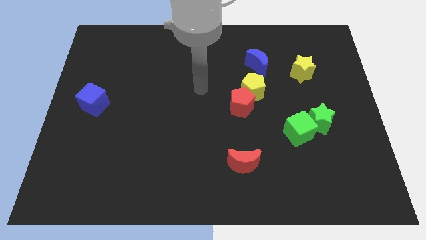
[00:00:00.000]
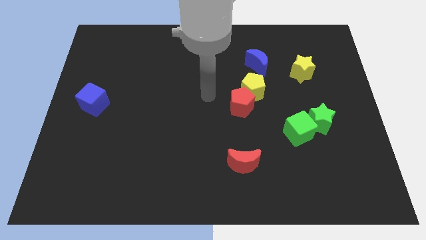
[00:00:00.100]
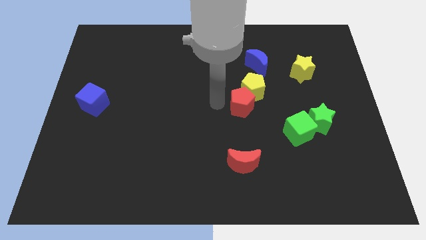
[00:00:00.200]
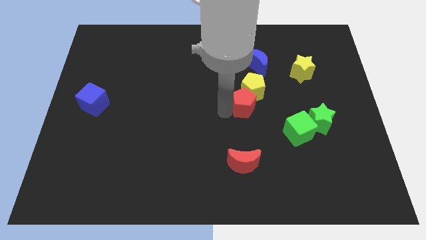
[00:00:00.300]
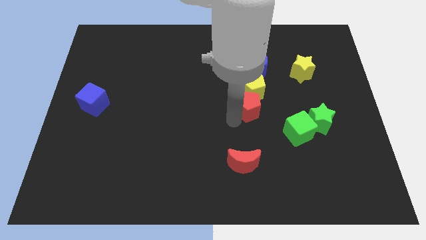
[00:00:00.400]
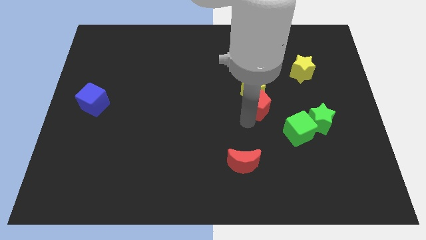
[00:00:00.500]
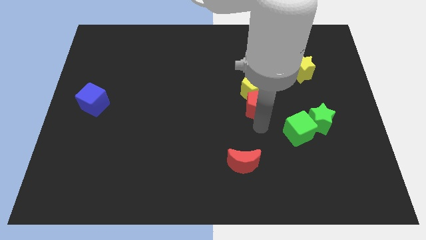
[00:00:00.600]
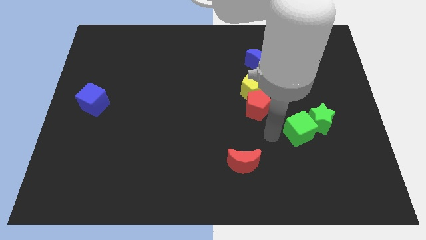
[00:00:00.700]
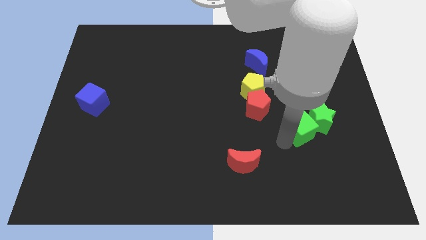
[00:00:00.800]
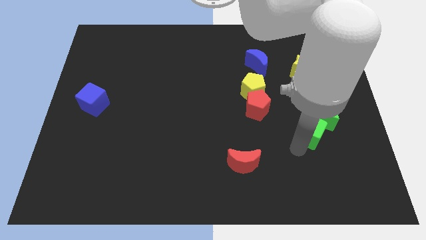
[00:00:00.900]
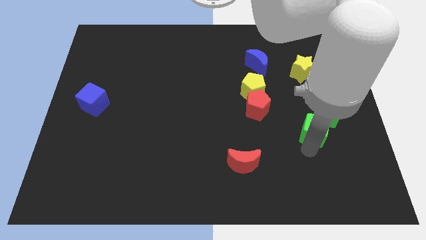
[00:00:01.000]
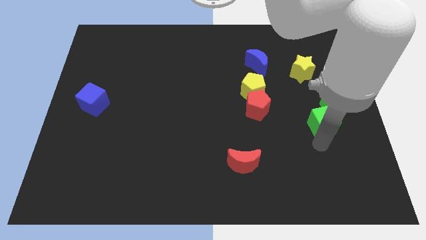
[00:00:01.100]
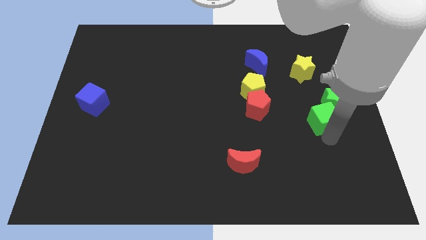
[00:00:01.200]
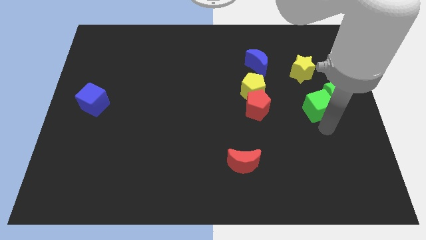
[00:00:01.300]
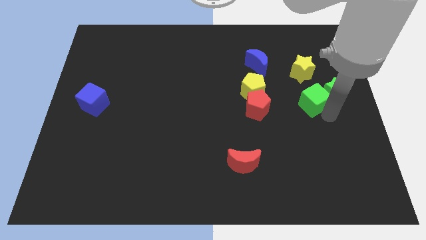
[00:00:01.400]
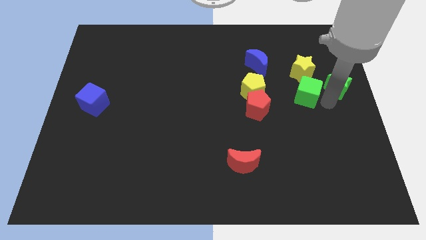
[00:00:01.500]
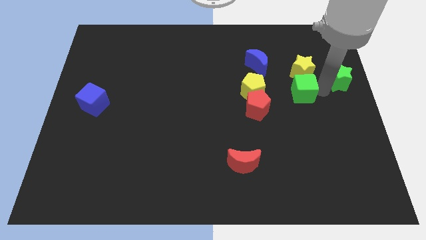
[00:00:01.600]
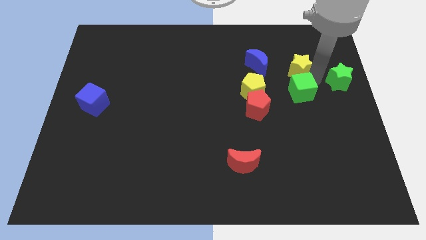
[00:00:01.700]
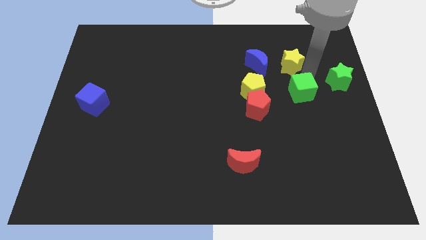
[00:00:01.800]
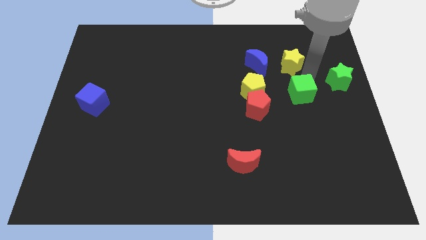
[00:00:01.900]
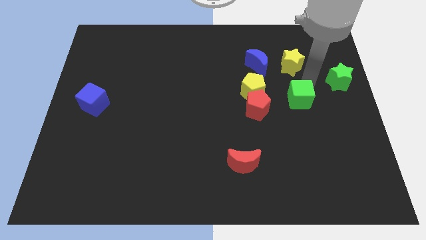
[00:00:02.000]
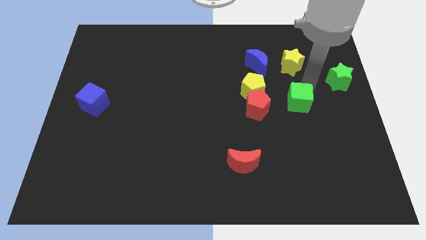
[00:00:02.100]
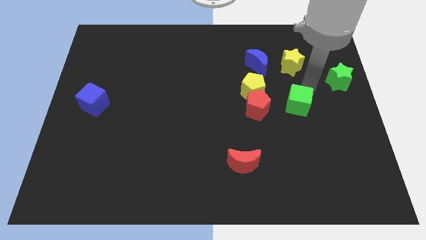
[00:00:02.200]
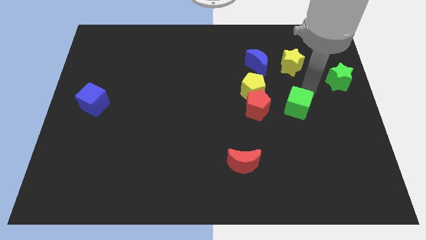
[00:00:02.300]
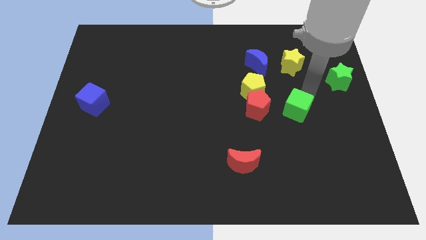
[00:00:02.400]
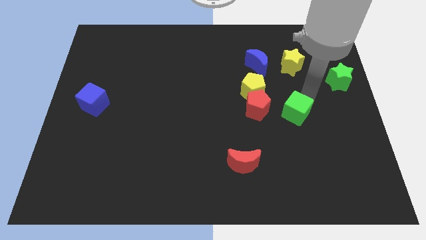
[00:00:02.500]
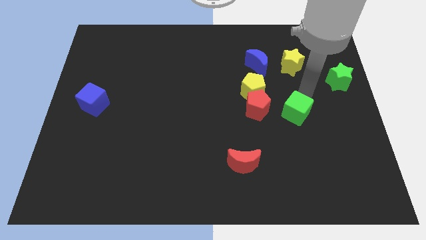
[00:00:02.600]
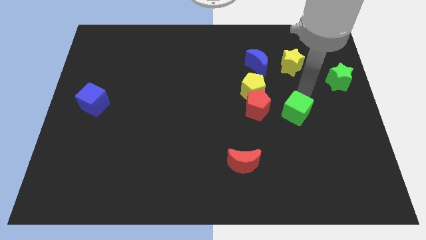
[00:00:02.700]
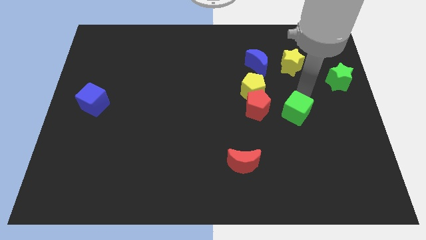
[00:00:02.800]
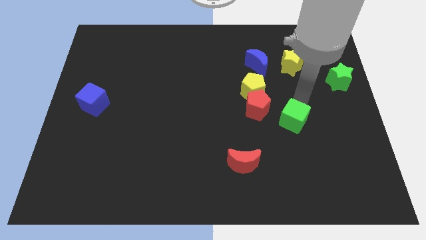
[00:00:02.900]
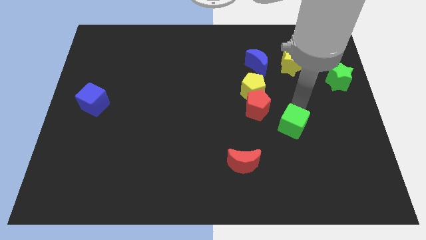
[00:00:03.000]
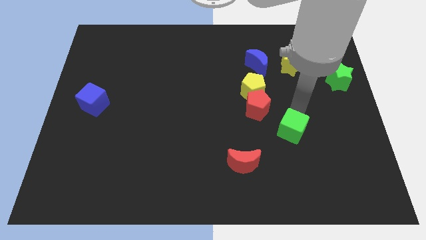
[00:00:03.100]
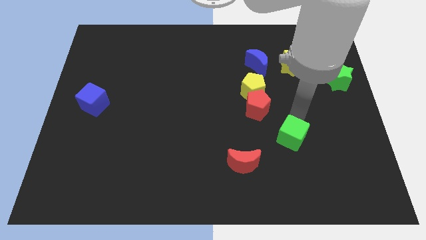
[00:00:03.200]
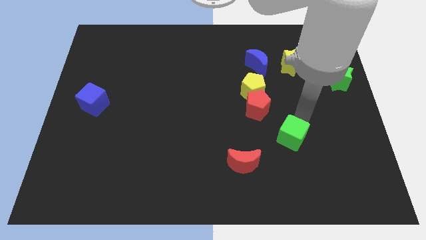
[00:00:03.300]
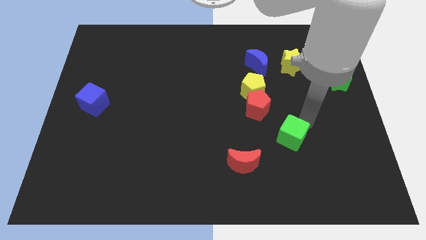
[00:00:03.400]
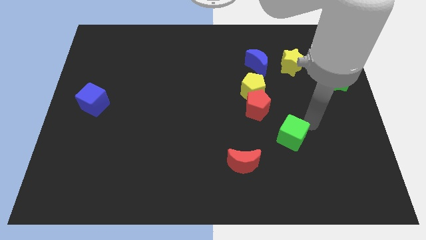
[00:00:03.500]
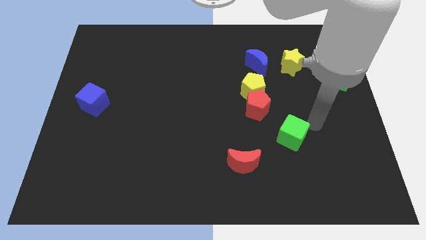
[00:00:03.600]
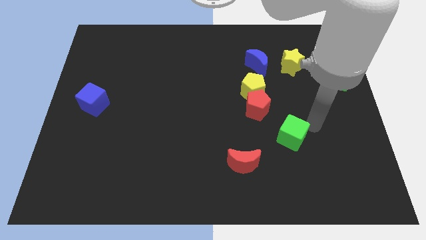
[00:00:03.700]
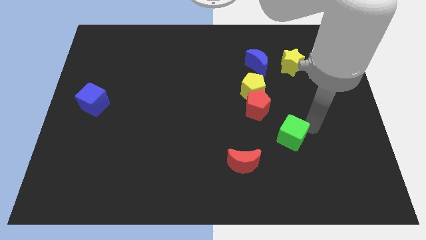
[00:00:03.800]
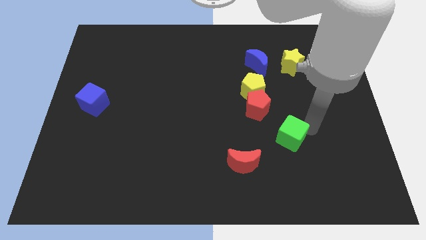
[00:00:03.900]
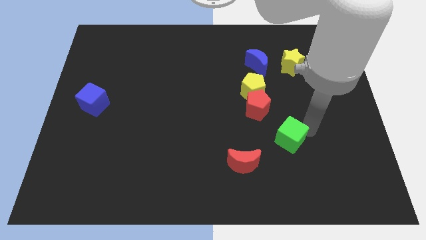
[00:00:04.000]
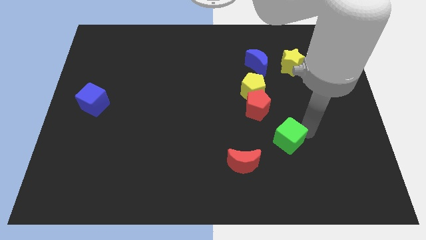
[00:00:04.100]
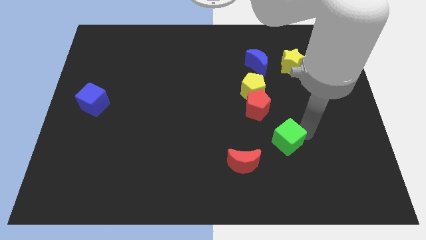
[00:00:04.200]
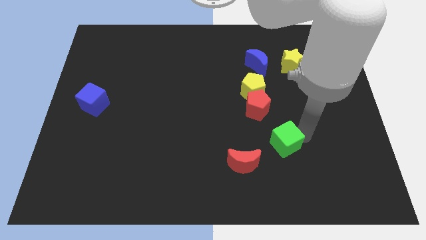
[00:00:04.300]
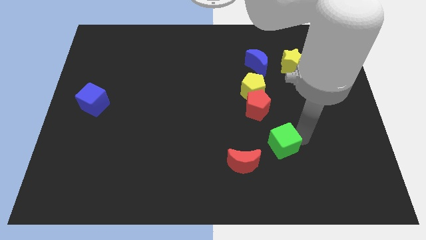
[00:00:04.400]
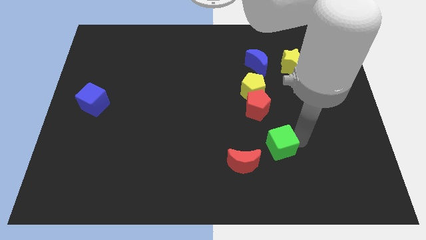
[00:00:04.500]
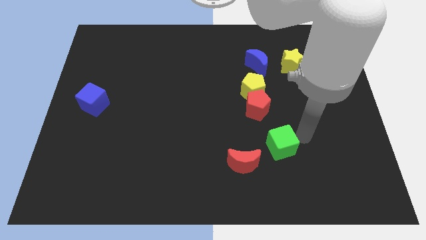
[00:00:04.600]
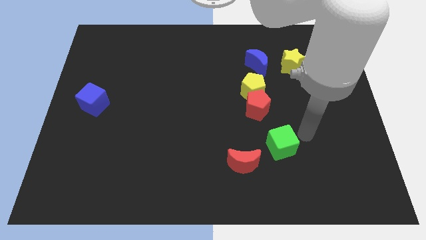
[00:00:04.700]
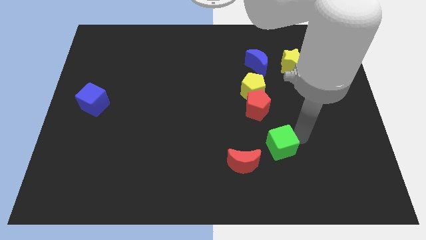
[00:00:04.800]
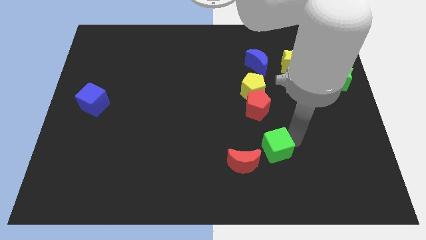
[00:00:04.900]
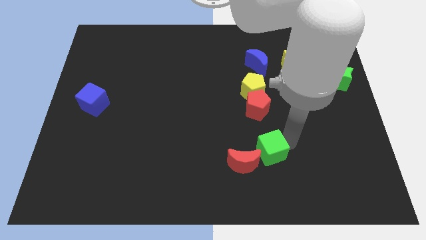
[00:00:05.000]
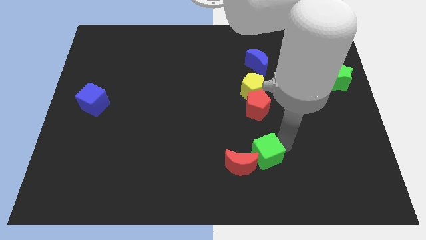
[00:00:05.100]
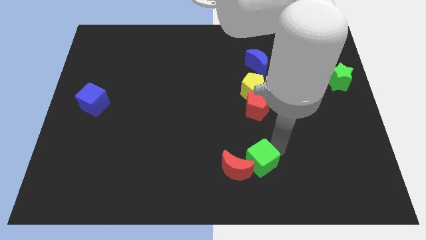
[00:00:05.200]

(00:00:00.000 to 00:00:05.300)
move the green cube close to the red moon

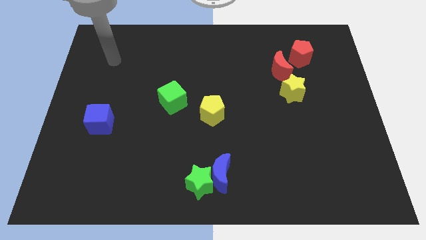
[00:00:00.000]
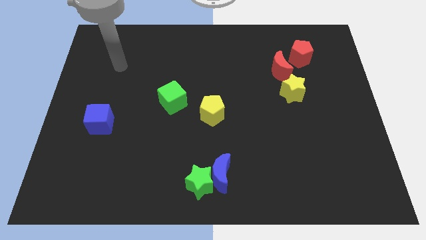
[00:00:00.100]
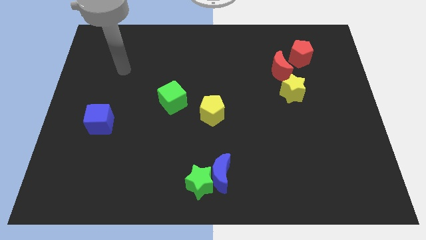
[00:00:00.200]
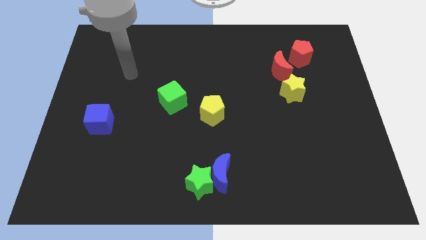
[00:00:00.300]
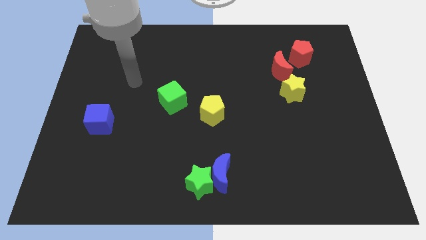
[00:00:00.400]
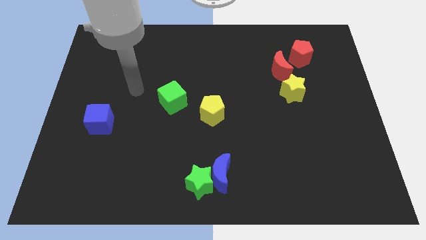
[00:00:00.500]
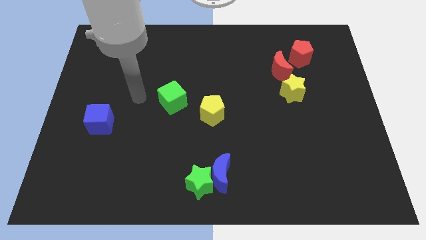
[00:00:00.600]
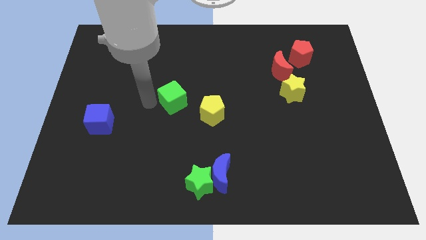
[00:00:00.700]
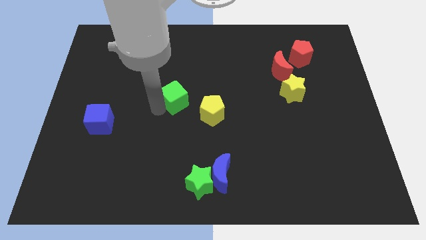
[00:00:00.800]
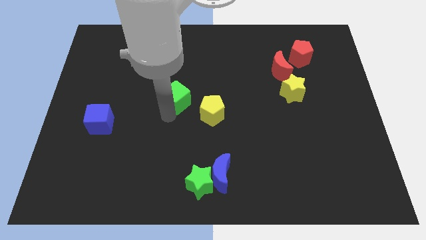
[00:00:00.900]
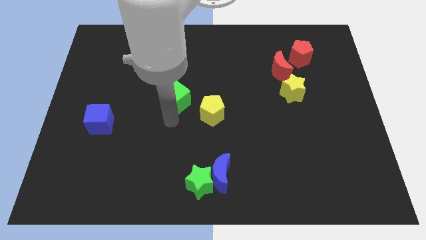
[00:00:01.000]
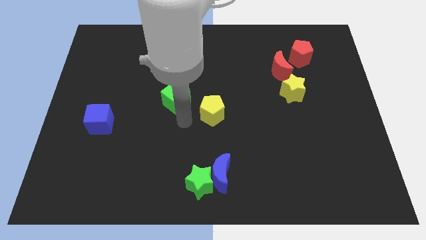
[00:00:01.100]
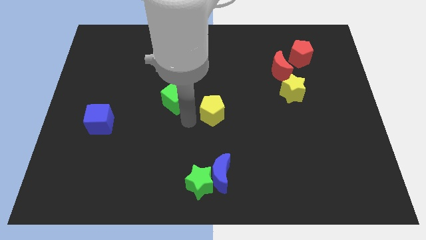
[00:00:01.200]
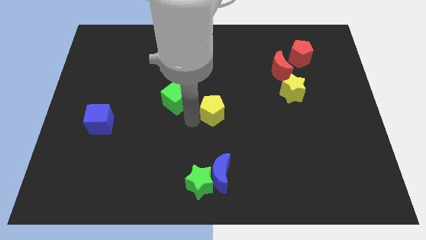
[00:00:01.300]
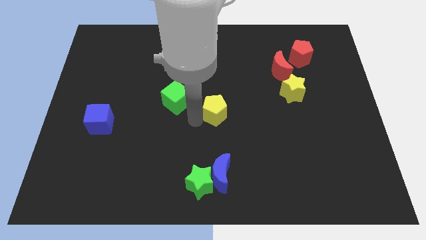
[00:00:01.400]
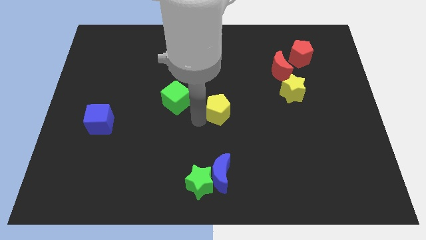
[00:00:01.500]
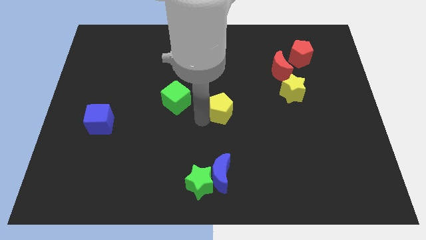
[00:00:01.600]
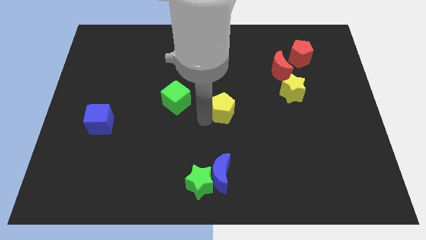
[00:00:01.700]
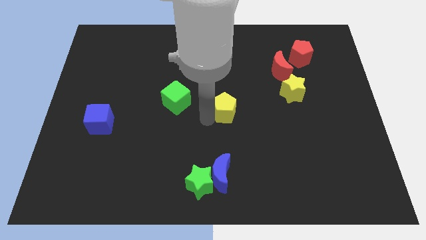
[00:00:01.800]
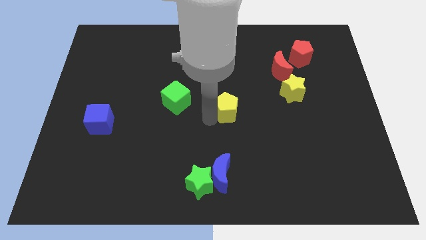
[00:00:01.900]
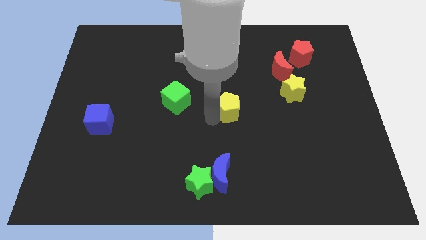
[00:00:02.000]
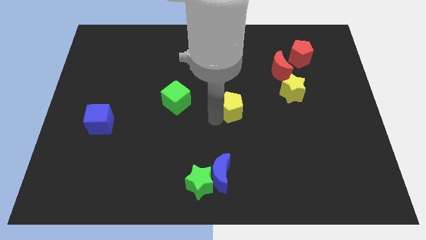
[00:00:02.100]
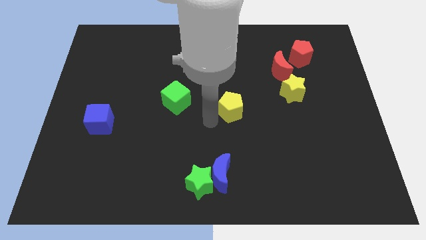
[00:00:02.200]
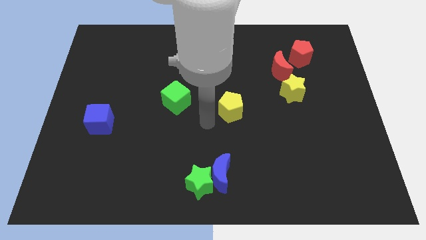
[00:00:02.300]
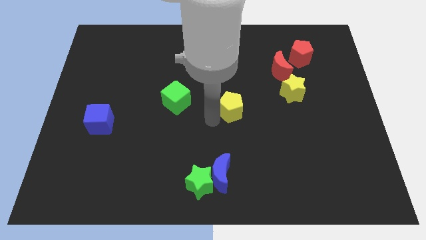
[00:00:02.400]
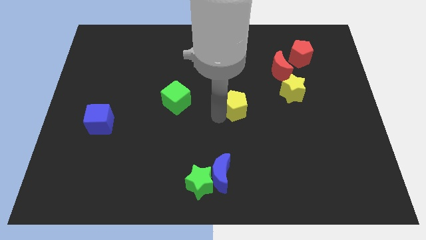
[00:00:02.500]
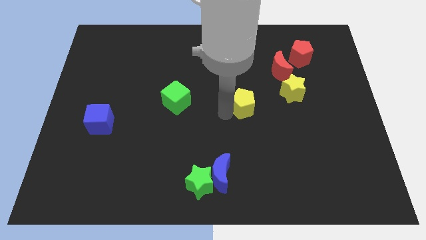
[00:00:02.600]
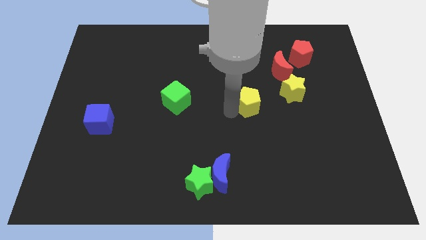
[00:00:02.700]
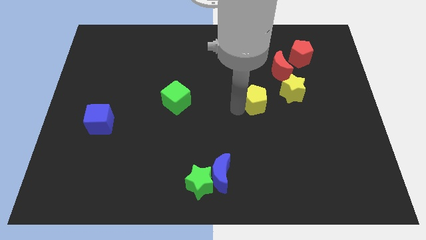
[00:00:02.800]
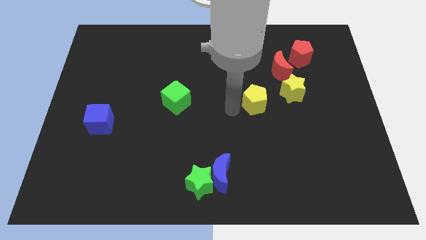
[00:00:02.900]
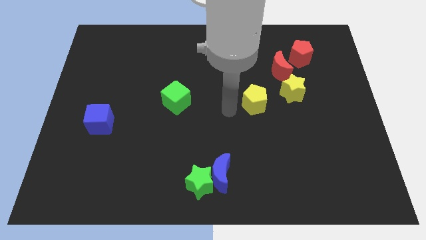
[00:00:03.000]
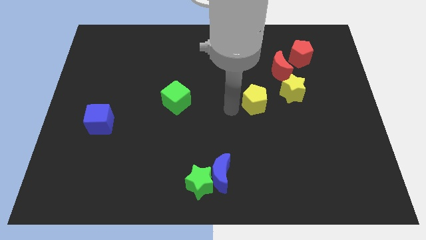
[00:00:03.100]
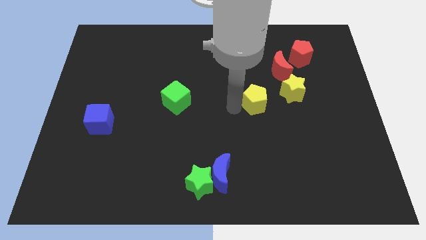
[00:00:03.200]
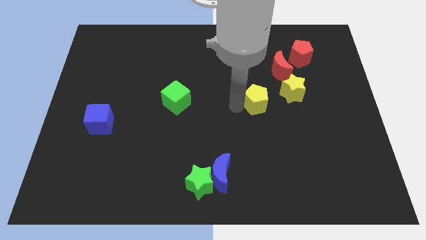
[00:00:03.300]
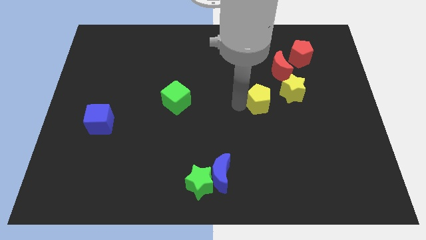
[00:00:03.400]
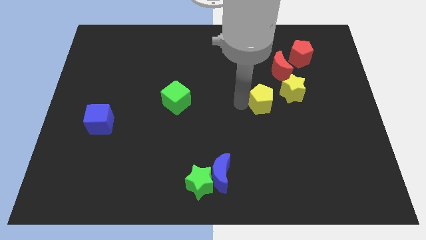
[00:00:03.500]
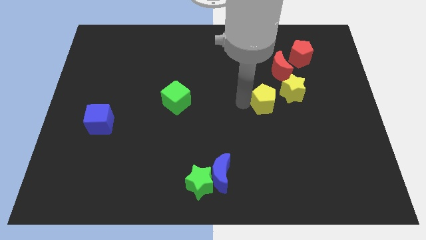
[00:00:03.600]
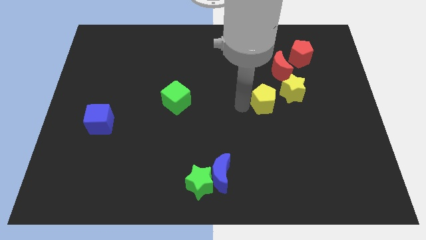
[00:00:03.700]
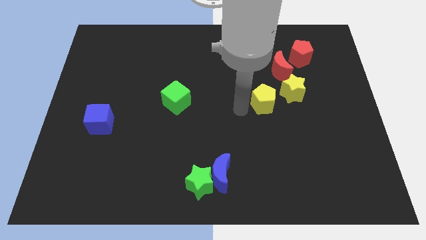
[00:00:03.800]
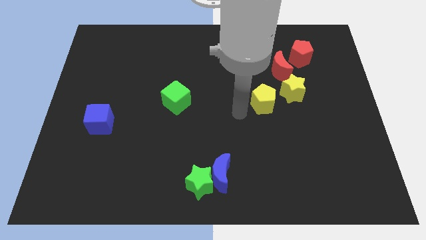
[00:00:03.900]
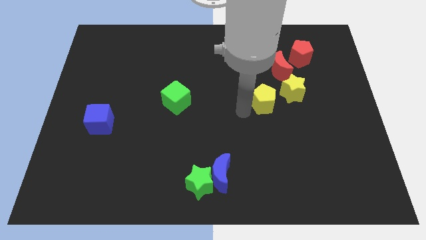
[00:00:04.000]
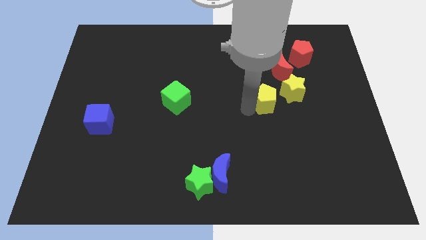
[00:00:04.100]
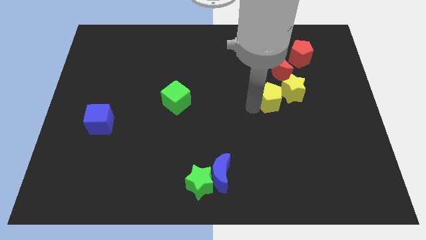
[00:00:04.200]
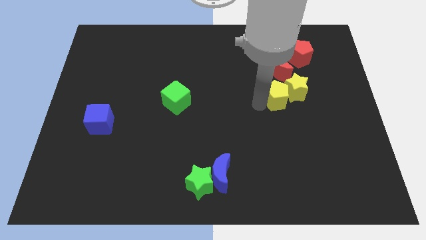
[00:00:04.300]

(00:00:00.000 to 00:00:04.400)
slide the yellow pentagon towards the yellow star
